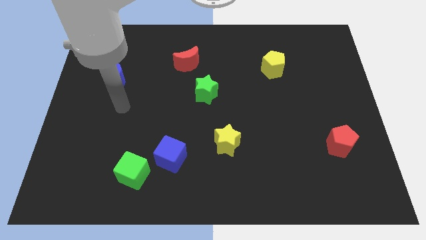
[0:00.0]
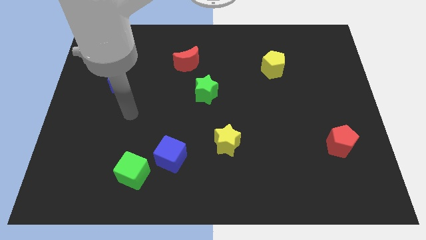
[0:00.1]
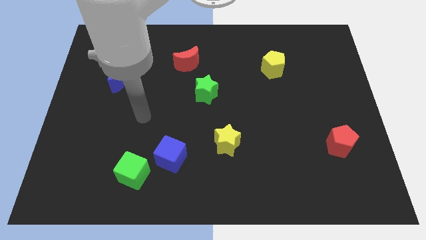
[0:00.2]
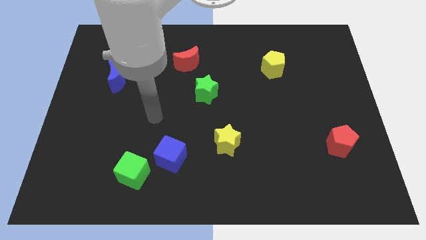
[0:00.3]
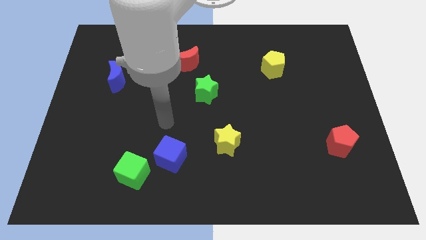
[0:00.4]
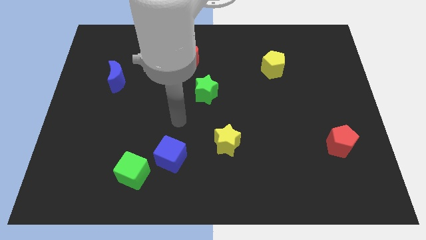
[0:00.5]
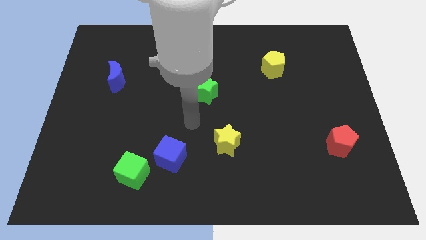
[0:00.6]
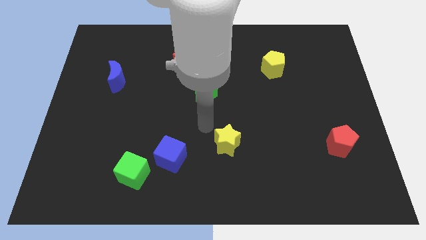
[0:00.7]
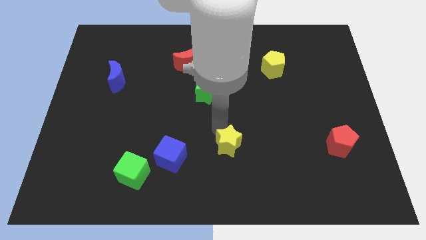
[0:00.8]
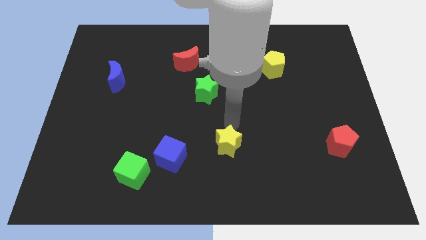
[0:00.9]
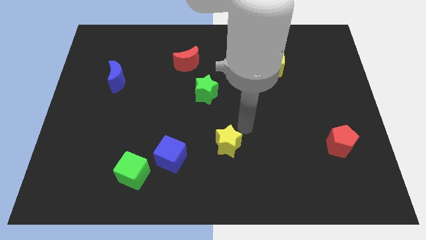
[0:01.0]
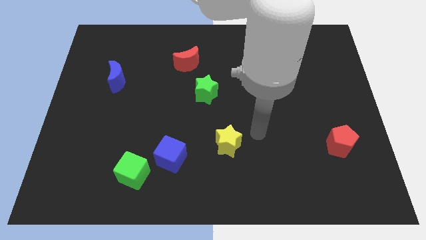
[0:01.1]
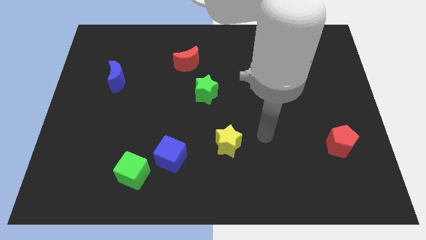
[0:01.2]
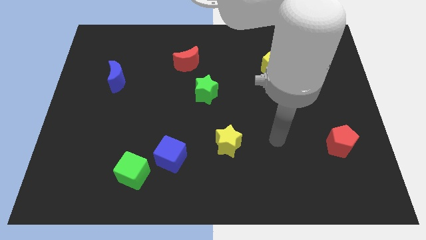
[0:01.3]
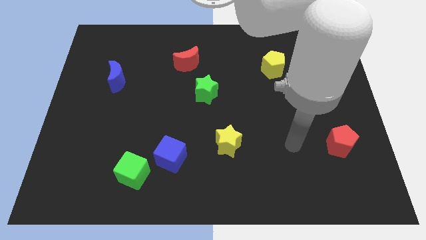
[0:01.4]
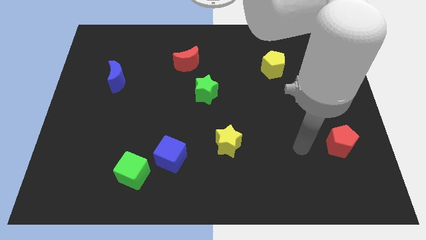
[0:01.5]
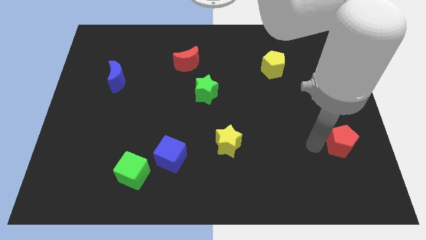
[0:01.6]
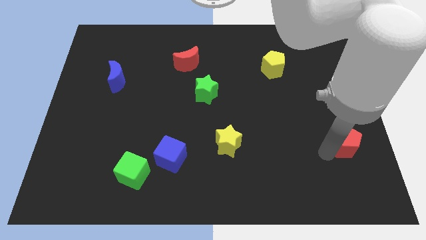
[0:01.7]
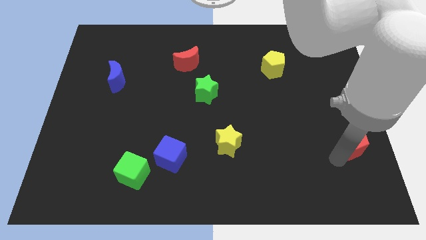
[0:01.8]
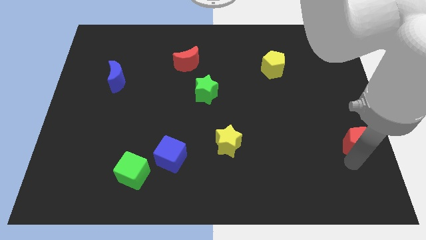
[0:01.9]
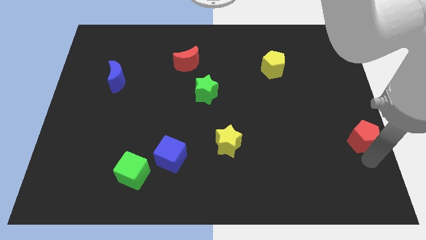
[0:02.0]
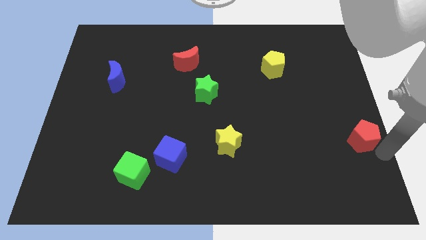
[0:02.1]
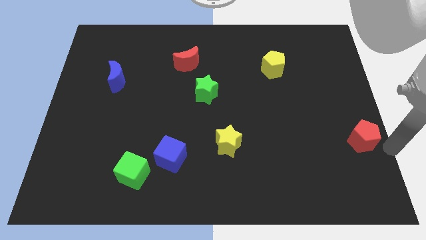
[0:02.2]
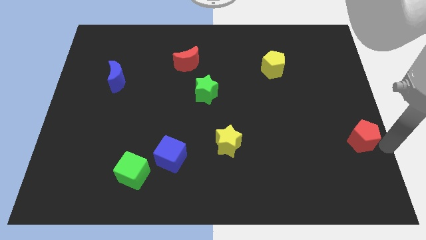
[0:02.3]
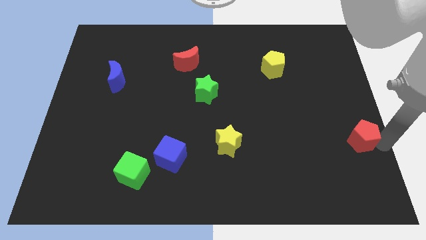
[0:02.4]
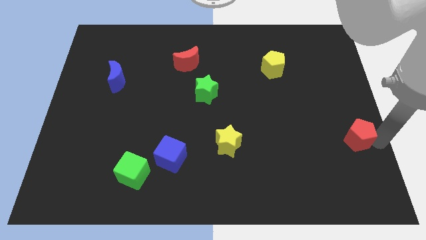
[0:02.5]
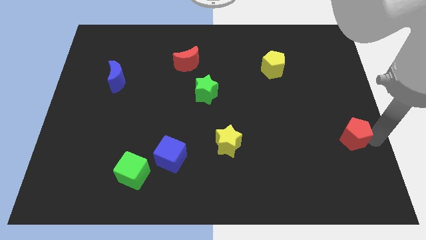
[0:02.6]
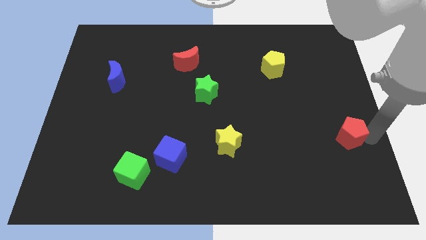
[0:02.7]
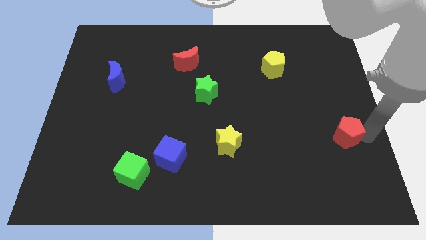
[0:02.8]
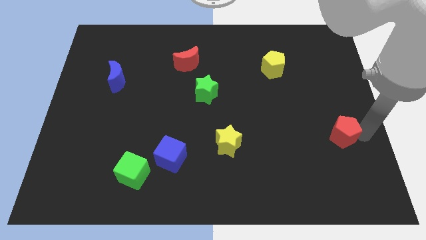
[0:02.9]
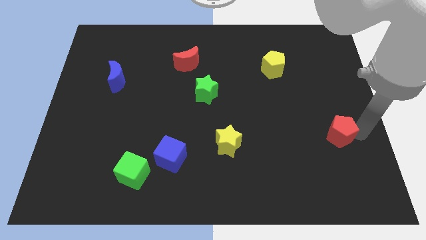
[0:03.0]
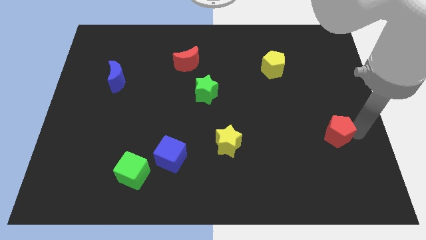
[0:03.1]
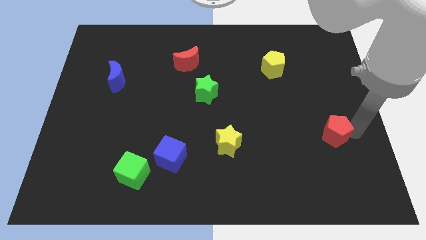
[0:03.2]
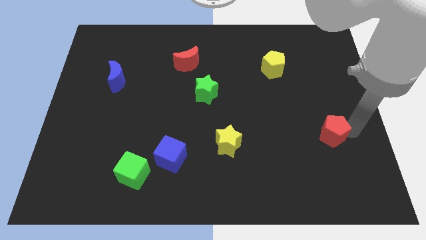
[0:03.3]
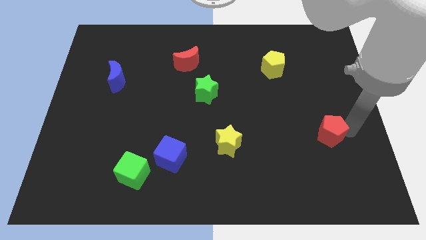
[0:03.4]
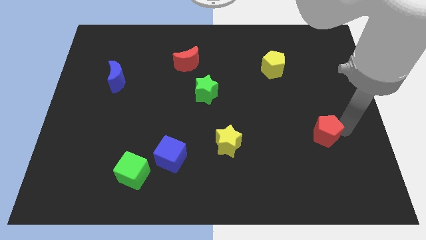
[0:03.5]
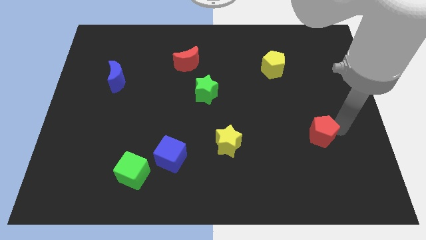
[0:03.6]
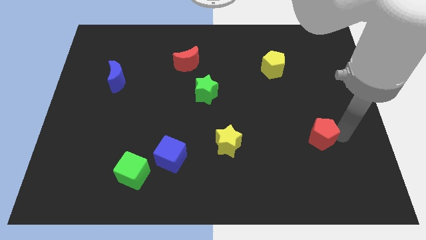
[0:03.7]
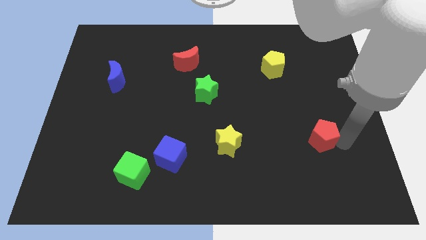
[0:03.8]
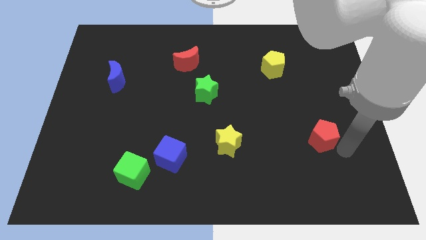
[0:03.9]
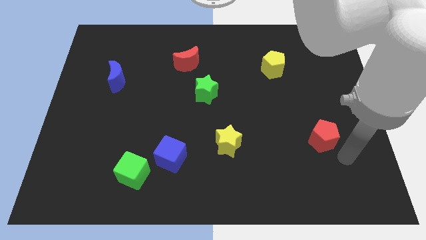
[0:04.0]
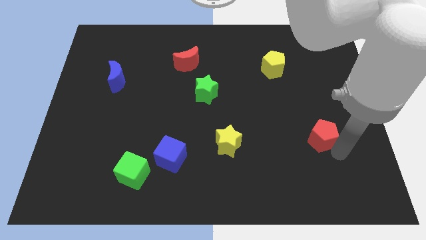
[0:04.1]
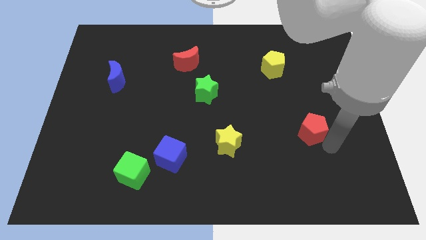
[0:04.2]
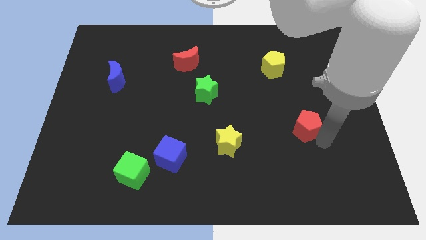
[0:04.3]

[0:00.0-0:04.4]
slightly slide the red pentagon diagonally upwards and left

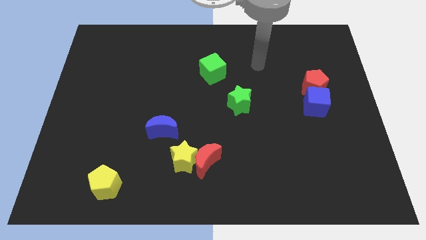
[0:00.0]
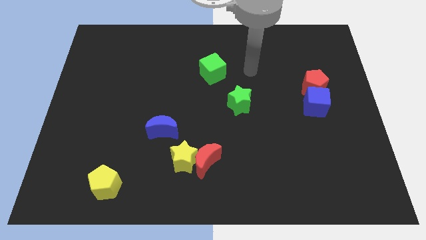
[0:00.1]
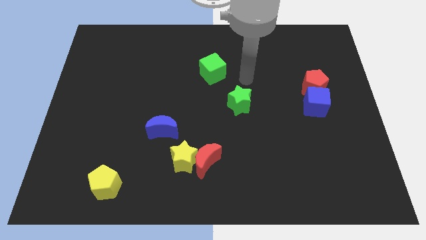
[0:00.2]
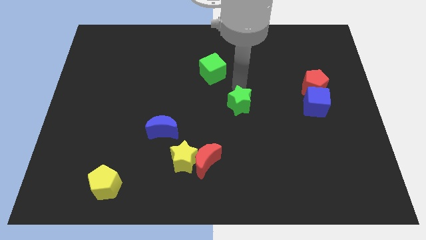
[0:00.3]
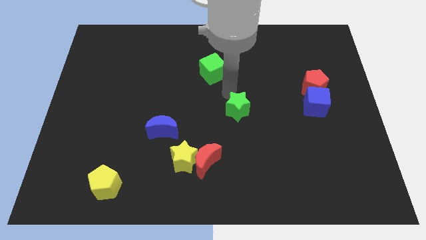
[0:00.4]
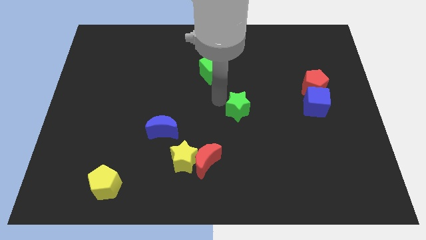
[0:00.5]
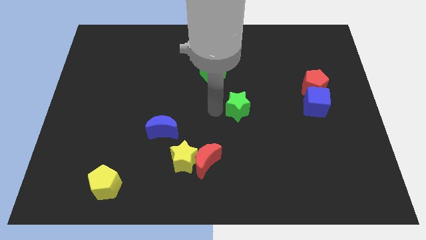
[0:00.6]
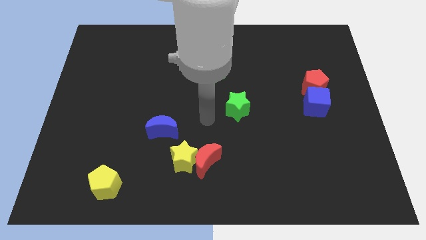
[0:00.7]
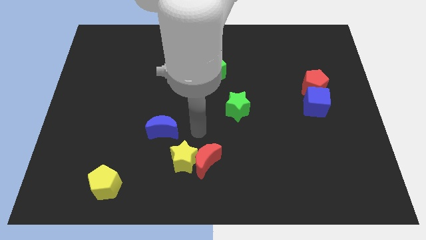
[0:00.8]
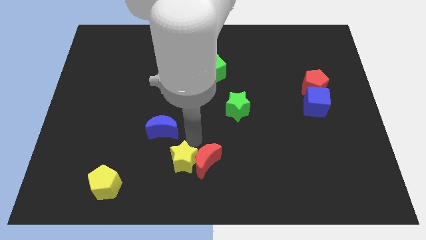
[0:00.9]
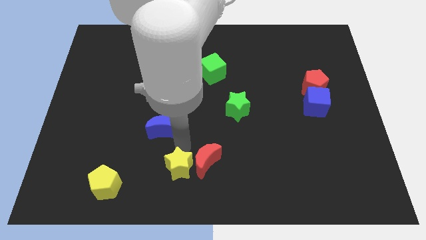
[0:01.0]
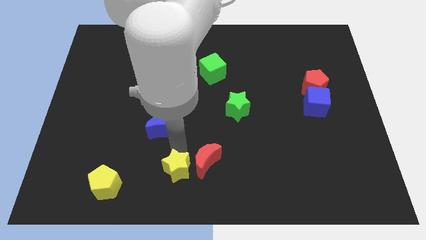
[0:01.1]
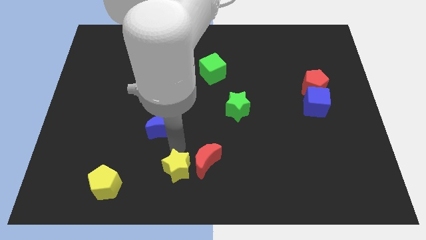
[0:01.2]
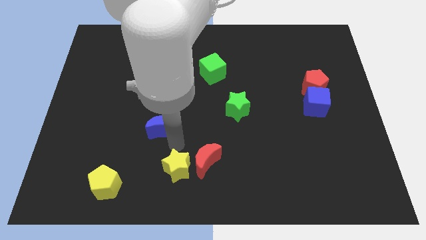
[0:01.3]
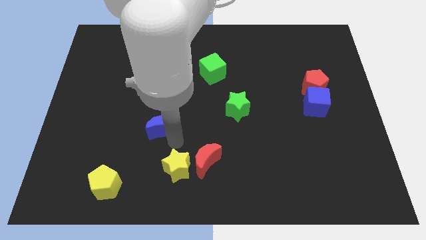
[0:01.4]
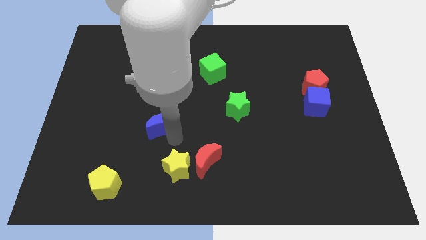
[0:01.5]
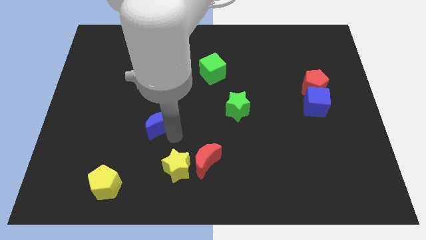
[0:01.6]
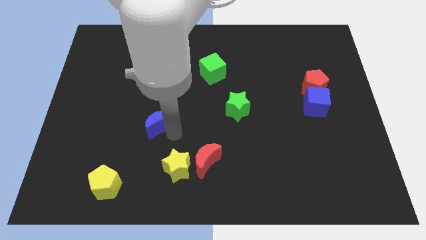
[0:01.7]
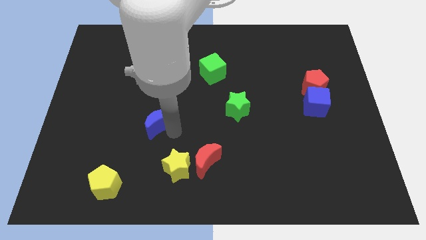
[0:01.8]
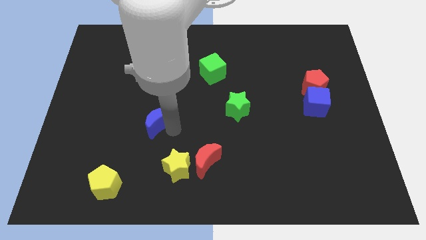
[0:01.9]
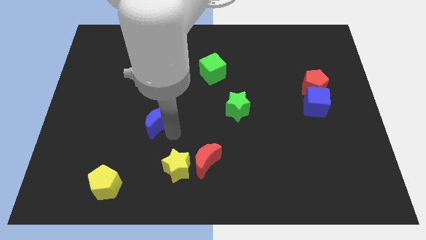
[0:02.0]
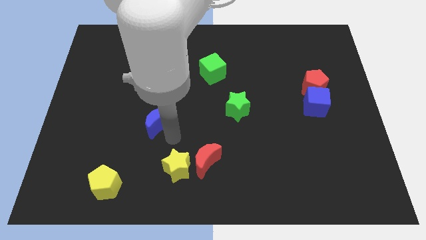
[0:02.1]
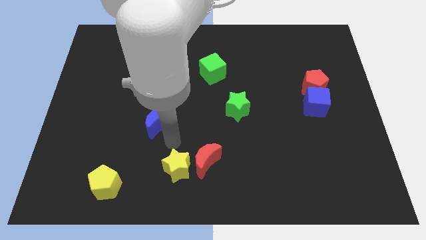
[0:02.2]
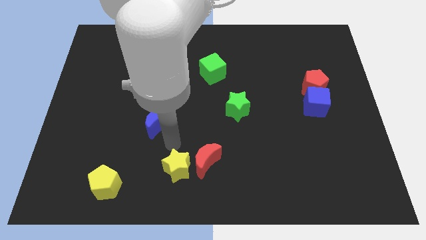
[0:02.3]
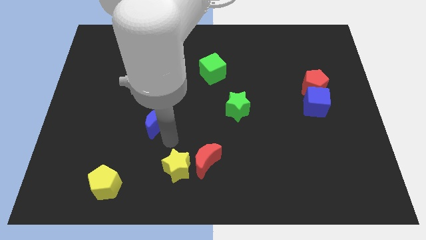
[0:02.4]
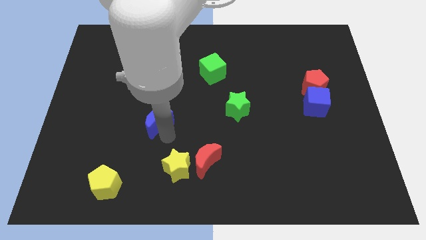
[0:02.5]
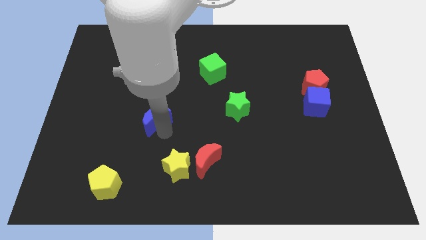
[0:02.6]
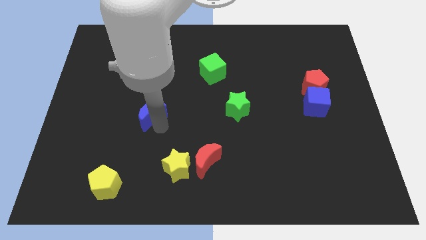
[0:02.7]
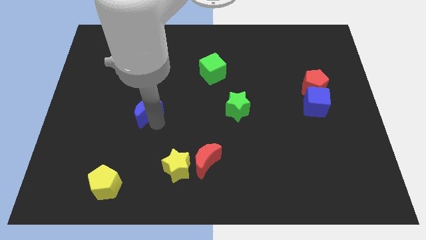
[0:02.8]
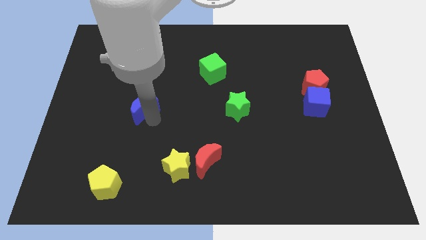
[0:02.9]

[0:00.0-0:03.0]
slightly slide the blue moon up and then to the left

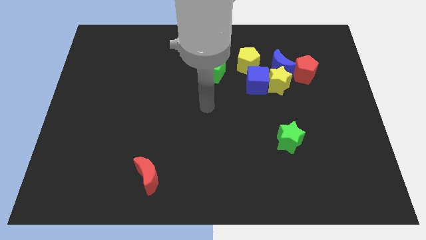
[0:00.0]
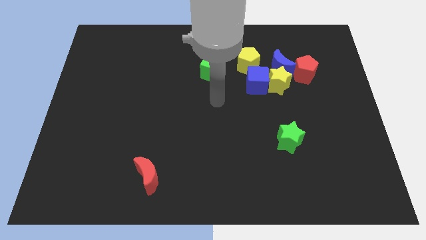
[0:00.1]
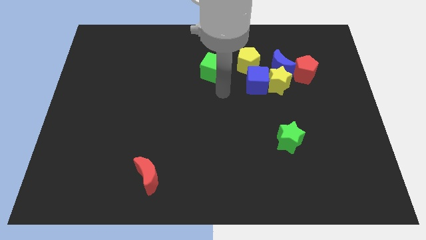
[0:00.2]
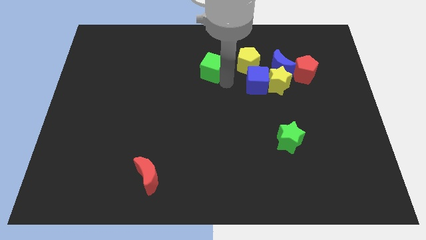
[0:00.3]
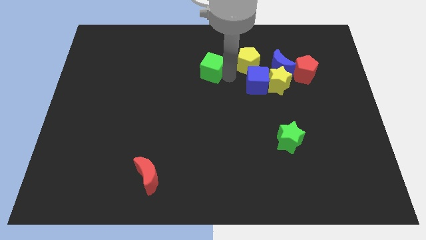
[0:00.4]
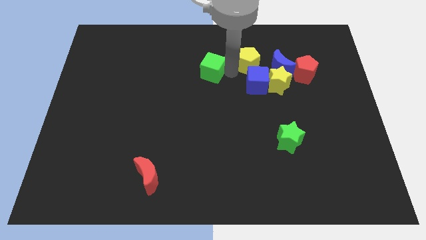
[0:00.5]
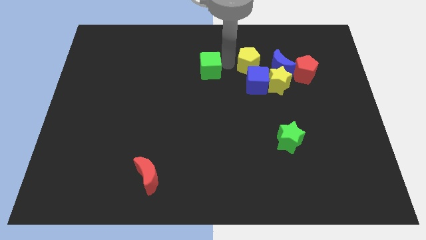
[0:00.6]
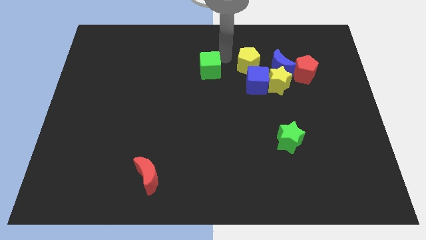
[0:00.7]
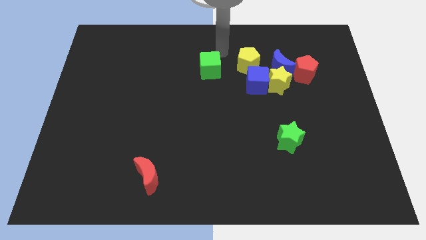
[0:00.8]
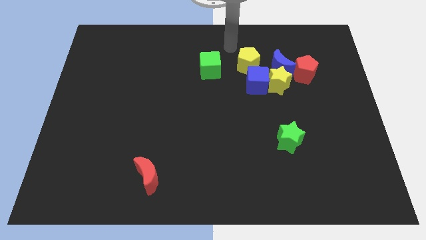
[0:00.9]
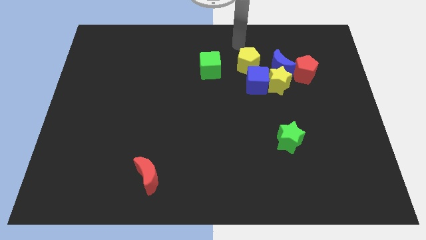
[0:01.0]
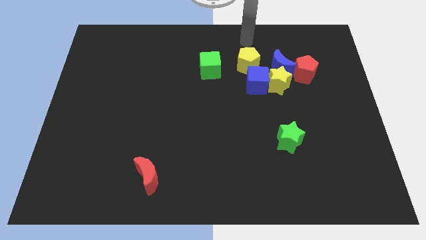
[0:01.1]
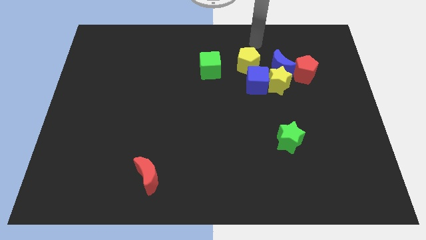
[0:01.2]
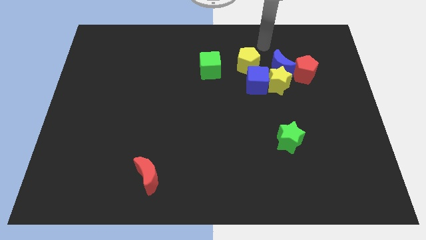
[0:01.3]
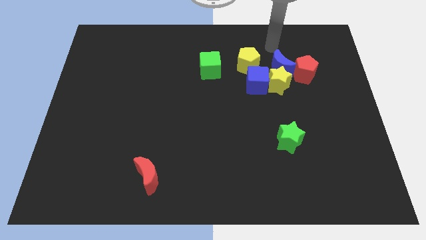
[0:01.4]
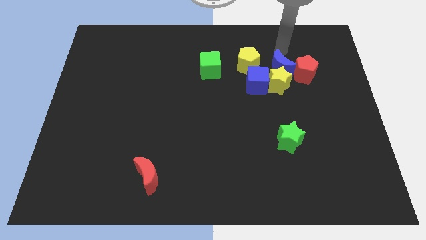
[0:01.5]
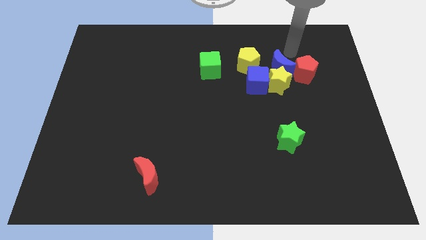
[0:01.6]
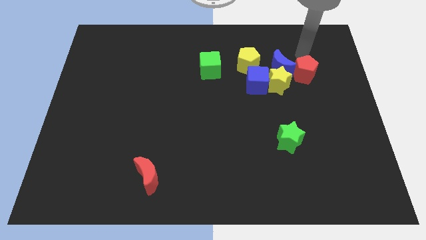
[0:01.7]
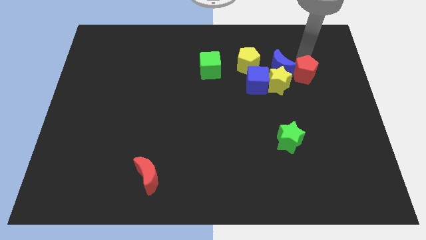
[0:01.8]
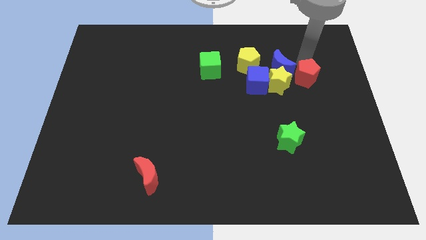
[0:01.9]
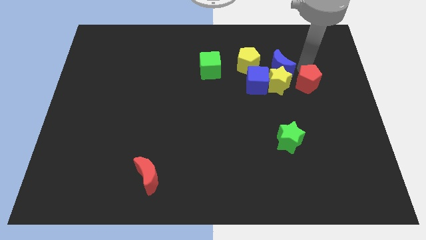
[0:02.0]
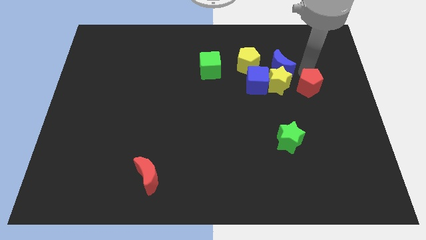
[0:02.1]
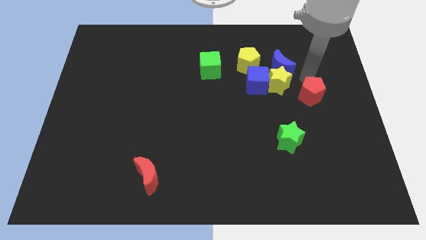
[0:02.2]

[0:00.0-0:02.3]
slide the red pentagon downwards a bit
